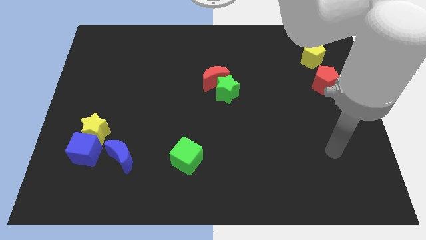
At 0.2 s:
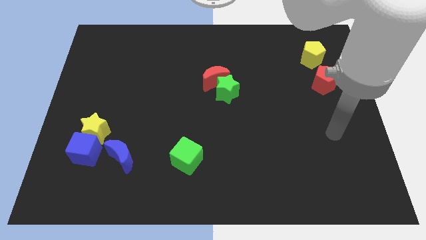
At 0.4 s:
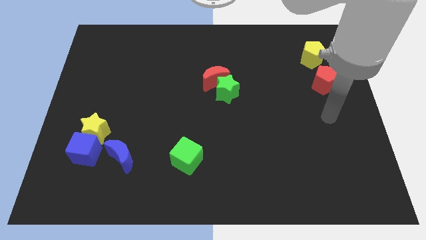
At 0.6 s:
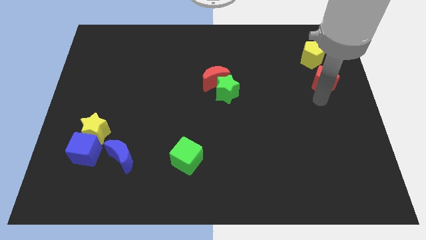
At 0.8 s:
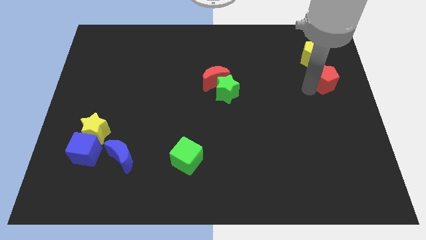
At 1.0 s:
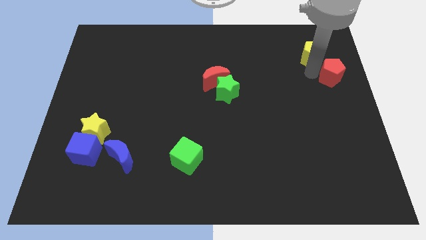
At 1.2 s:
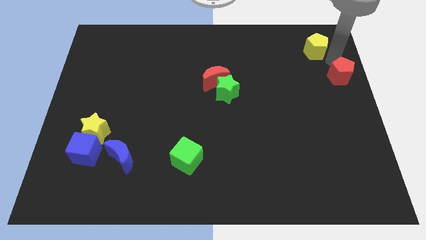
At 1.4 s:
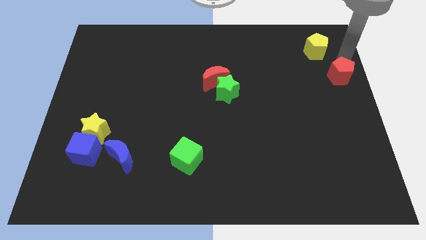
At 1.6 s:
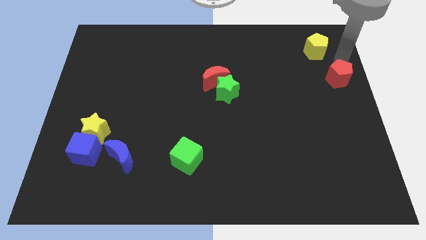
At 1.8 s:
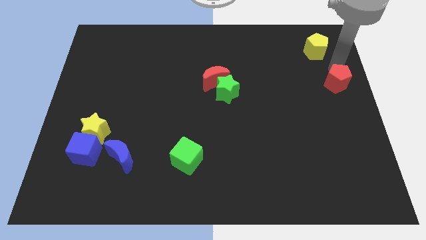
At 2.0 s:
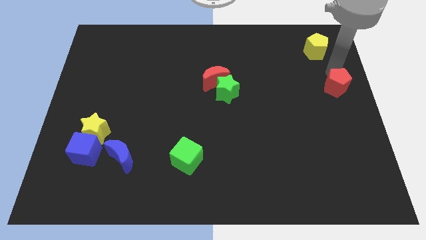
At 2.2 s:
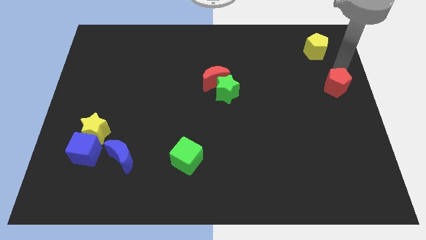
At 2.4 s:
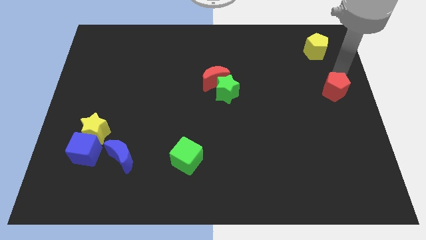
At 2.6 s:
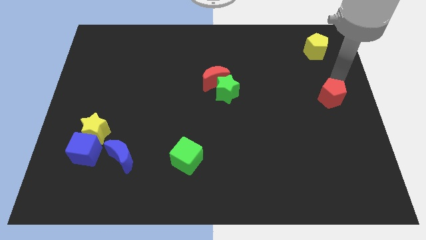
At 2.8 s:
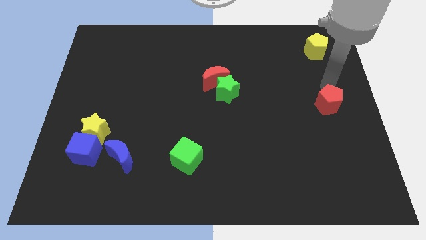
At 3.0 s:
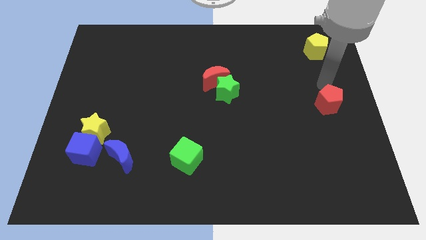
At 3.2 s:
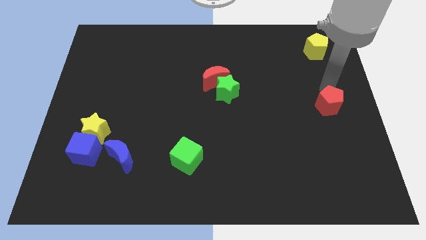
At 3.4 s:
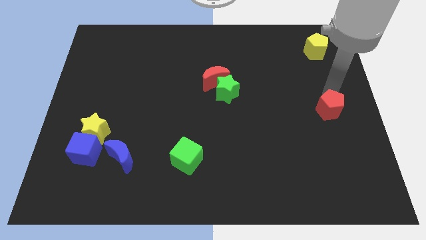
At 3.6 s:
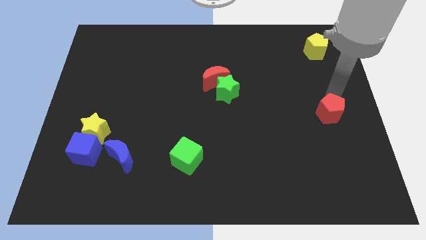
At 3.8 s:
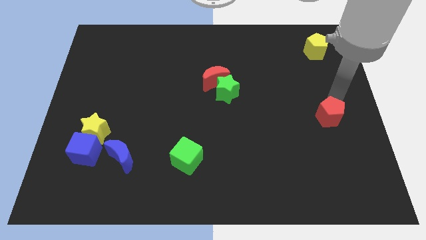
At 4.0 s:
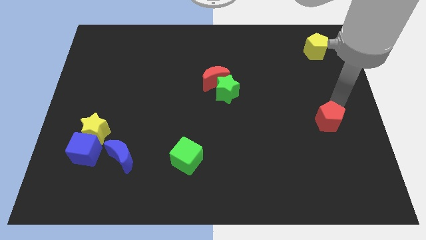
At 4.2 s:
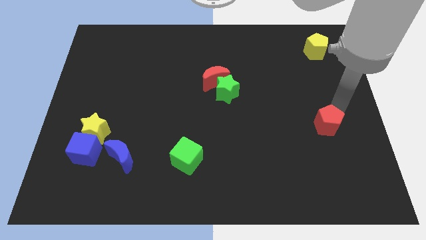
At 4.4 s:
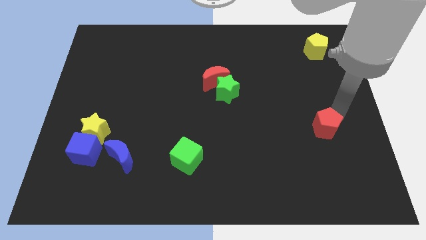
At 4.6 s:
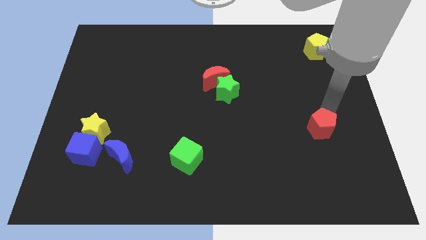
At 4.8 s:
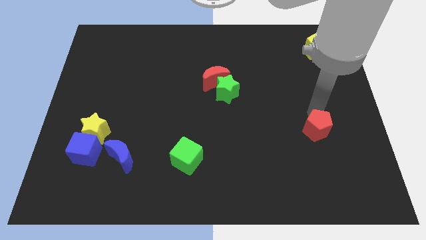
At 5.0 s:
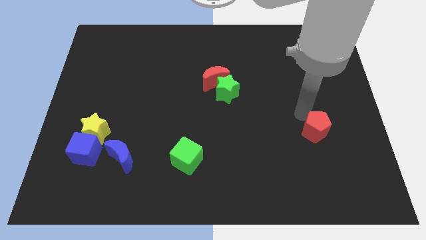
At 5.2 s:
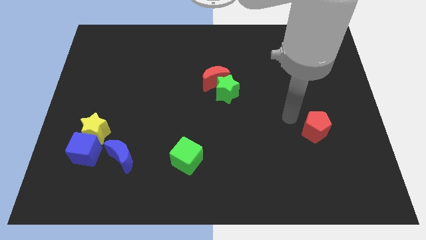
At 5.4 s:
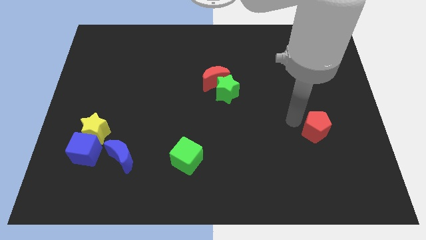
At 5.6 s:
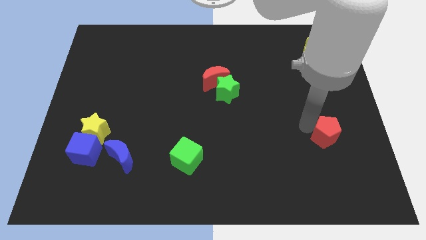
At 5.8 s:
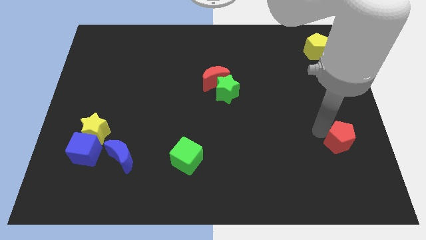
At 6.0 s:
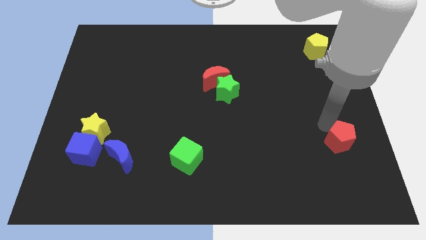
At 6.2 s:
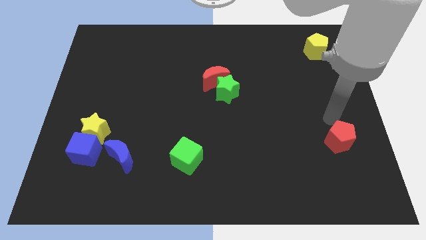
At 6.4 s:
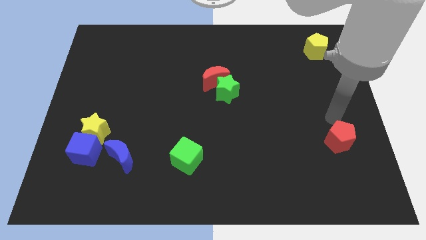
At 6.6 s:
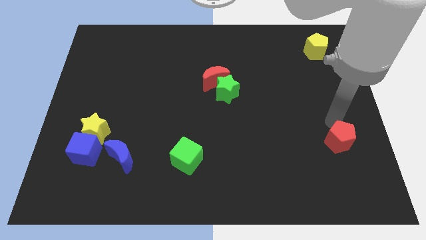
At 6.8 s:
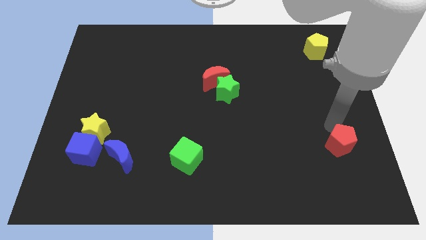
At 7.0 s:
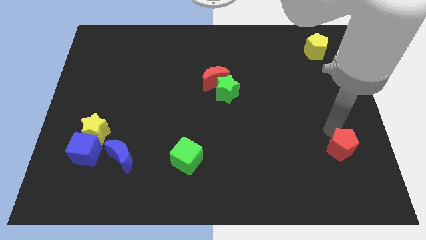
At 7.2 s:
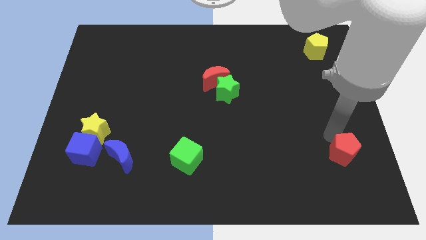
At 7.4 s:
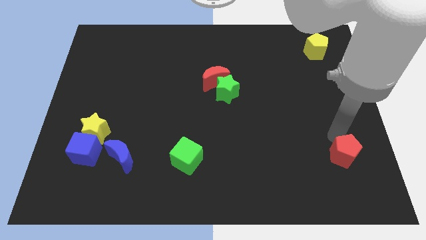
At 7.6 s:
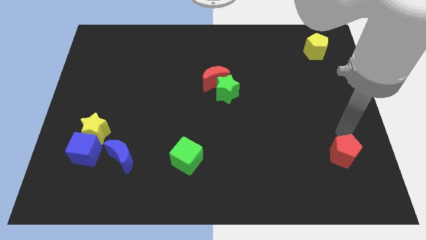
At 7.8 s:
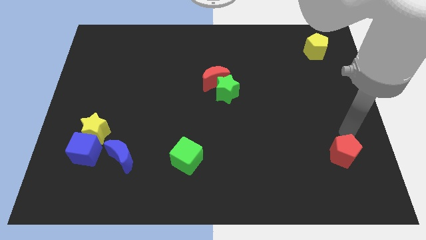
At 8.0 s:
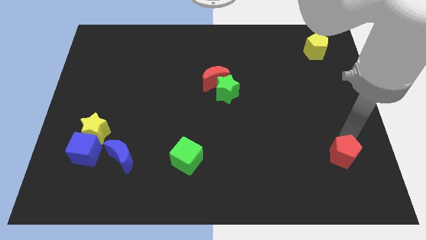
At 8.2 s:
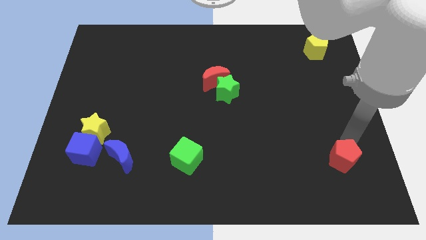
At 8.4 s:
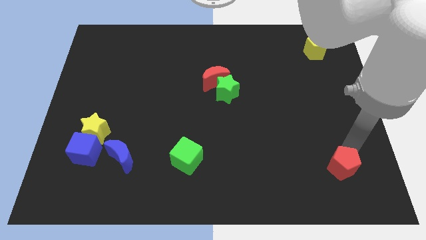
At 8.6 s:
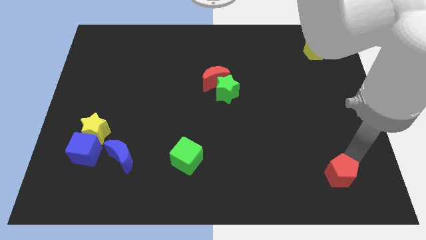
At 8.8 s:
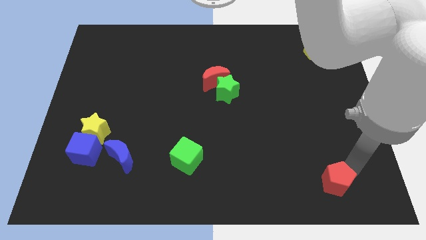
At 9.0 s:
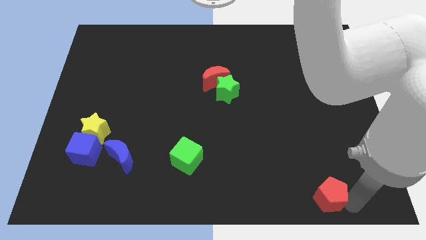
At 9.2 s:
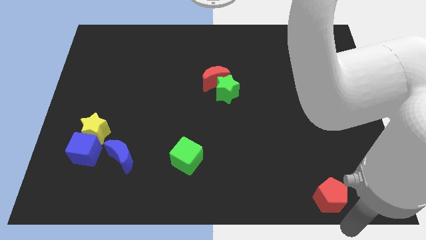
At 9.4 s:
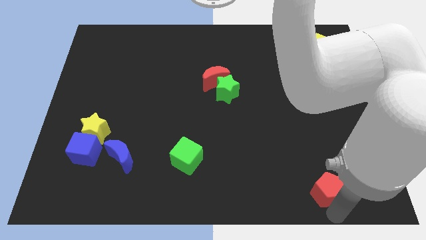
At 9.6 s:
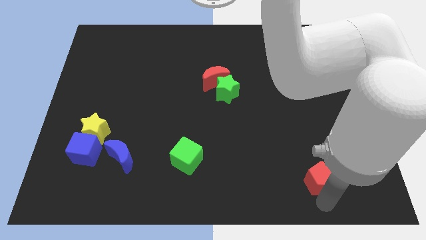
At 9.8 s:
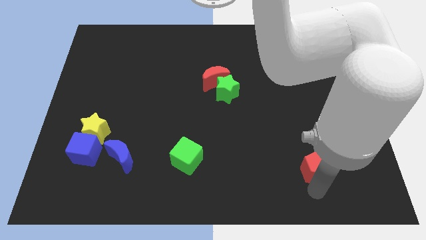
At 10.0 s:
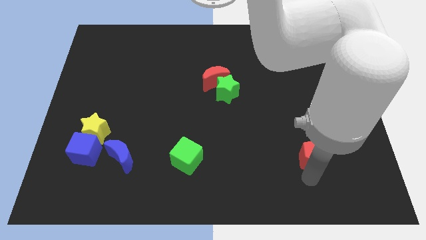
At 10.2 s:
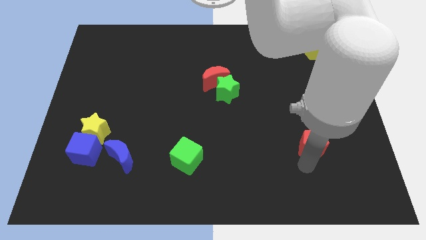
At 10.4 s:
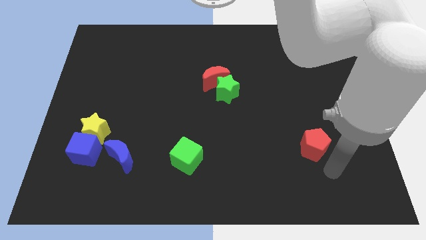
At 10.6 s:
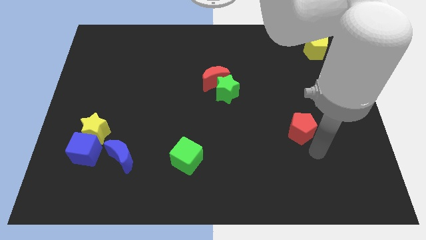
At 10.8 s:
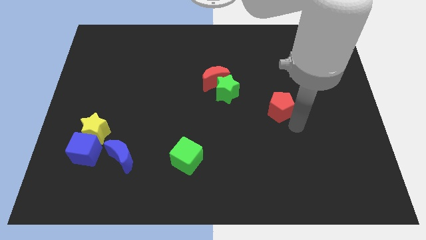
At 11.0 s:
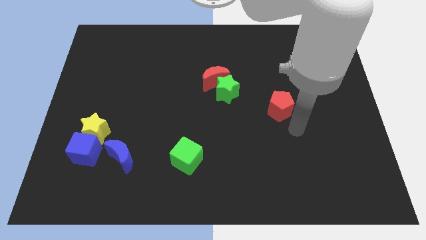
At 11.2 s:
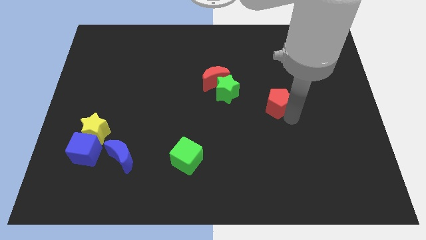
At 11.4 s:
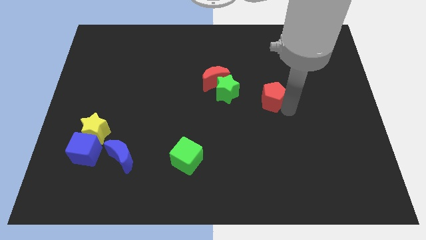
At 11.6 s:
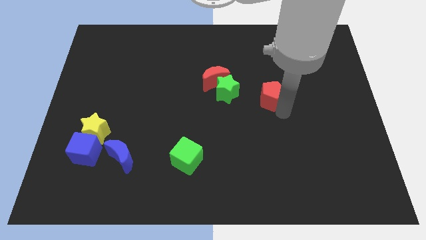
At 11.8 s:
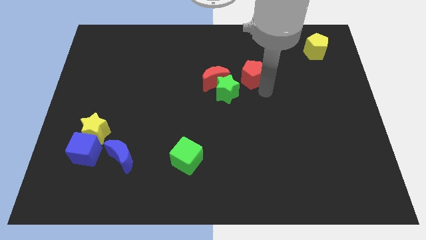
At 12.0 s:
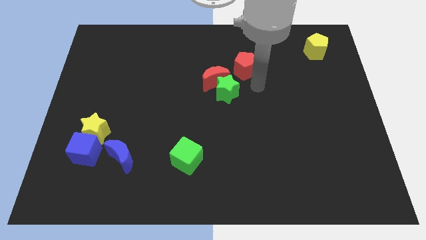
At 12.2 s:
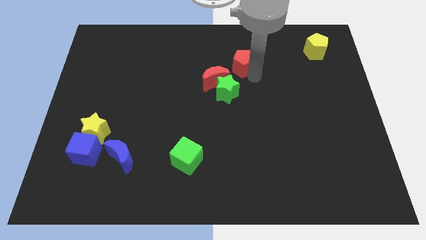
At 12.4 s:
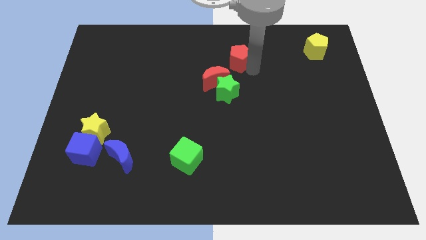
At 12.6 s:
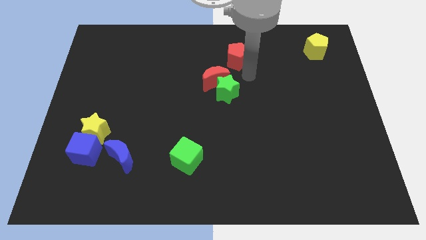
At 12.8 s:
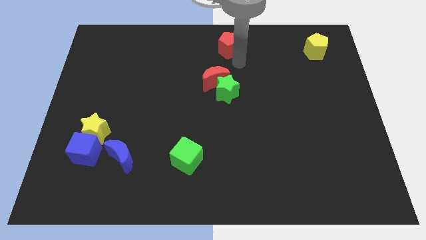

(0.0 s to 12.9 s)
slide the red pentagon to the towards your base
